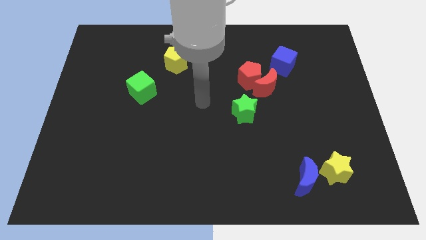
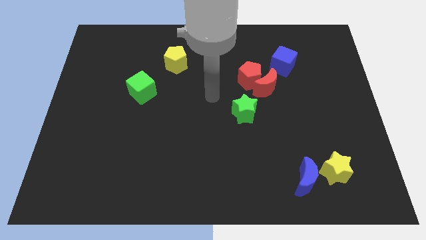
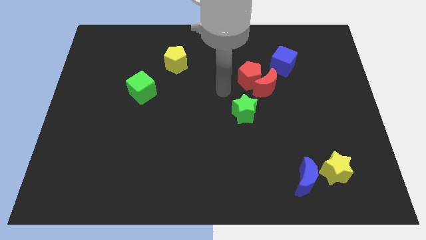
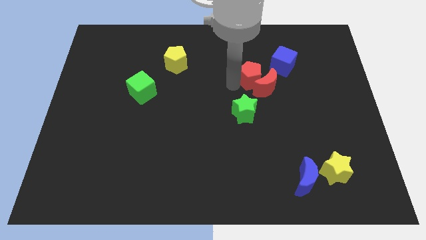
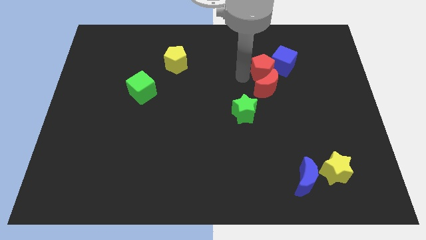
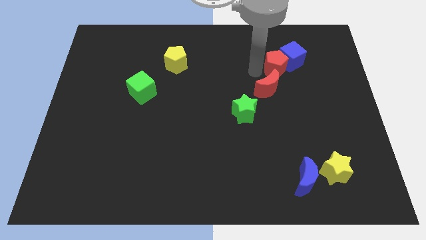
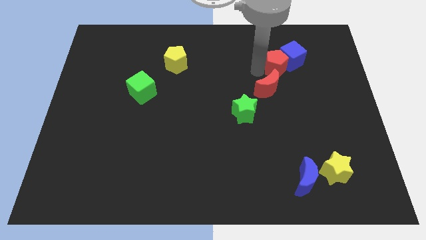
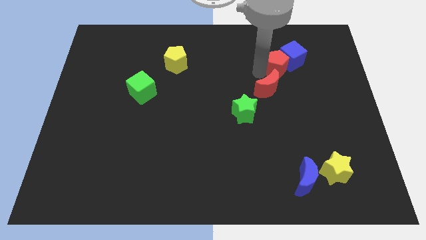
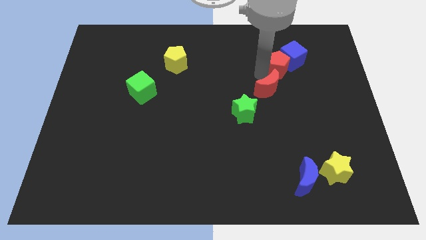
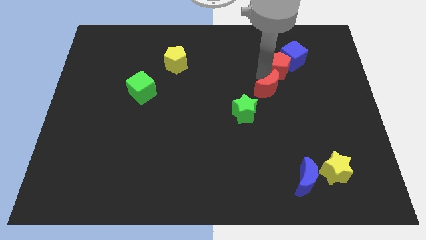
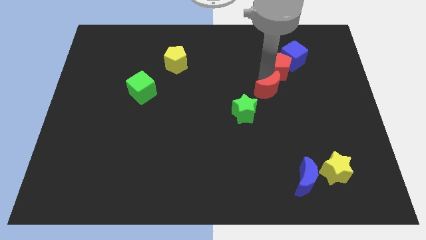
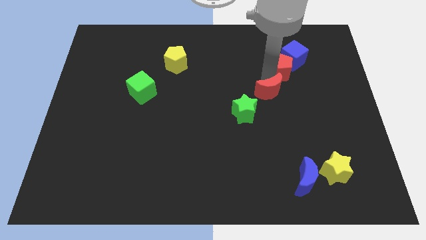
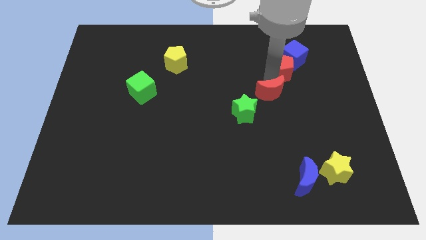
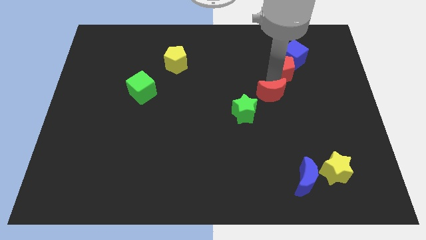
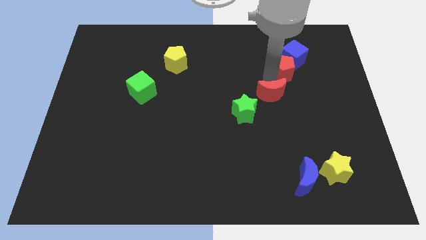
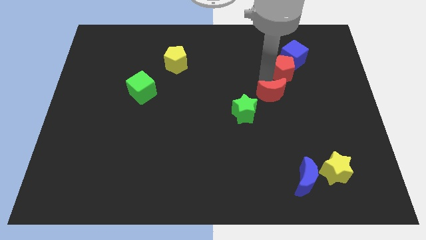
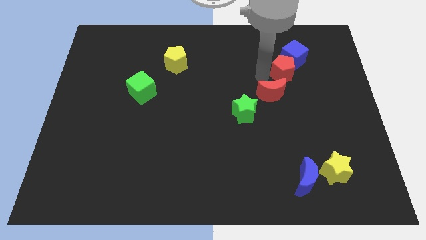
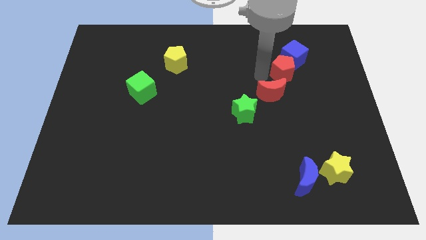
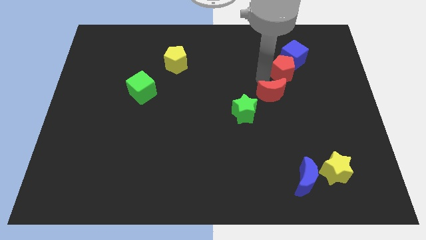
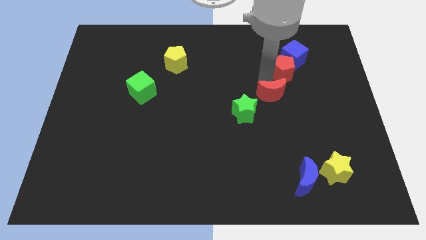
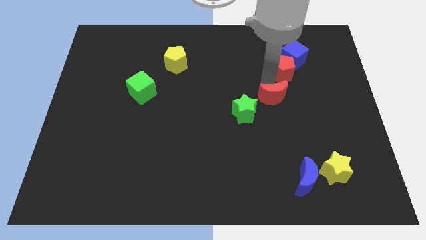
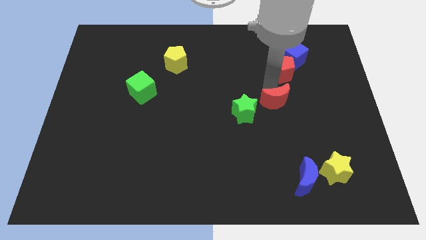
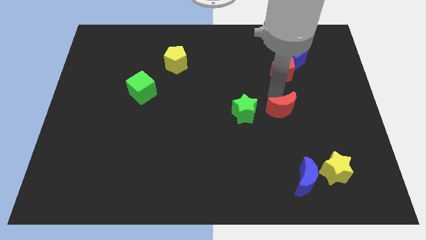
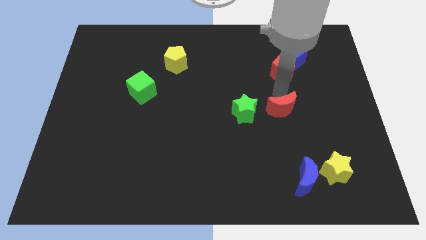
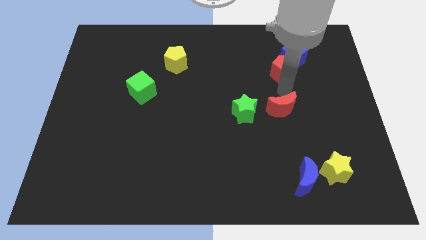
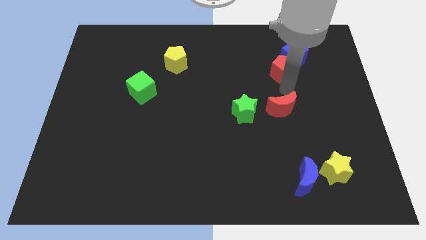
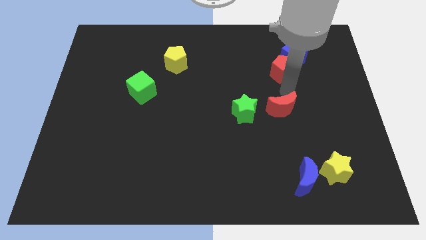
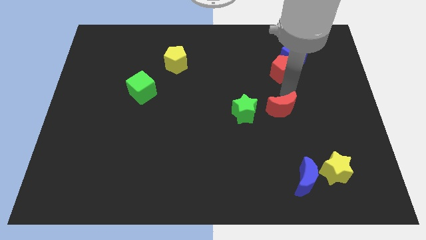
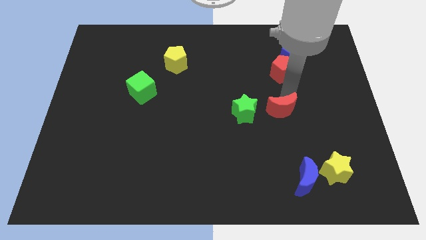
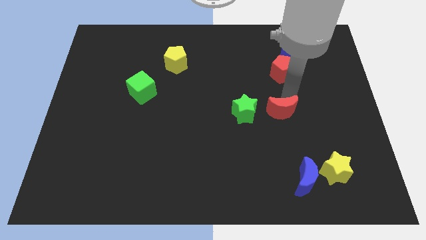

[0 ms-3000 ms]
move the red moon a bit downwards

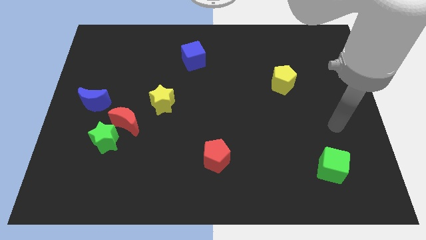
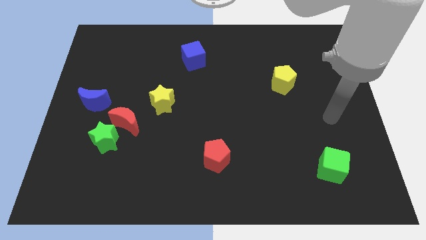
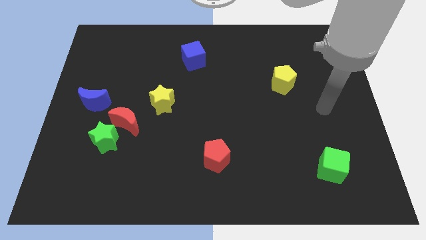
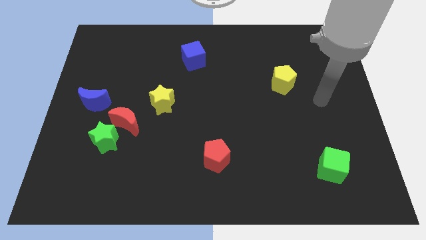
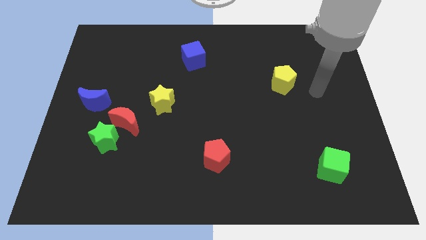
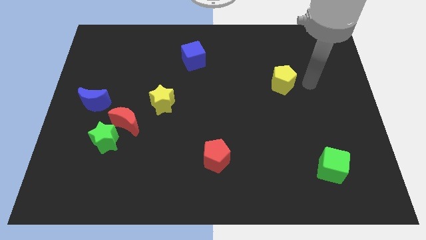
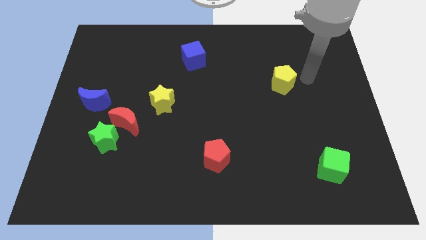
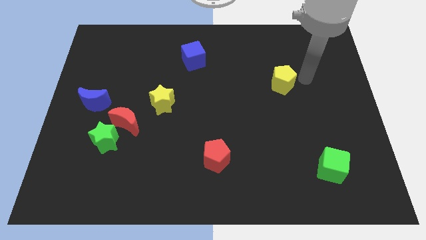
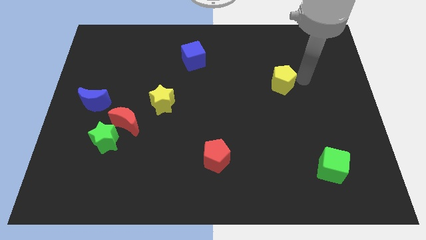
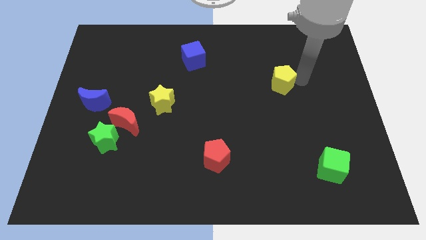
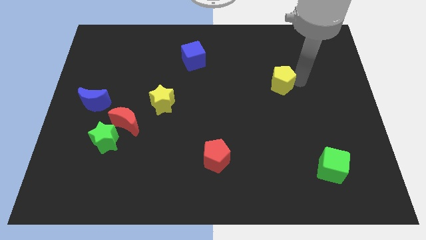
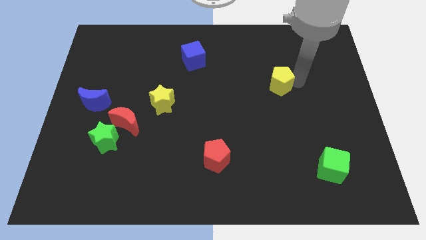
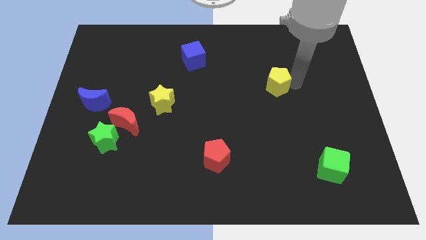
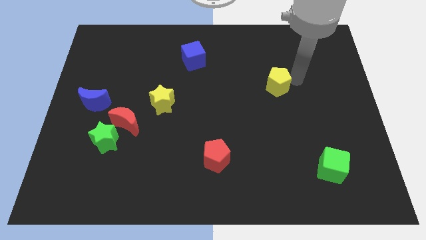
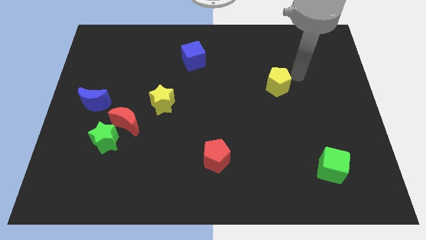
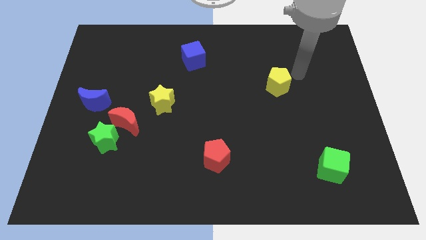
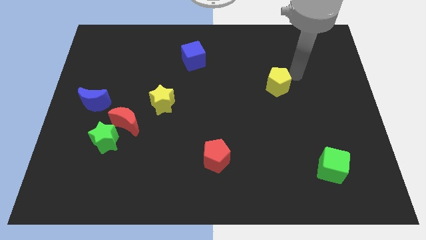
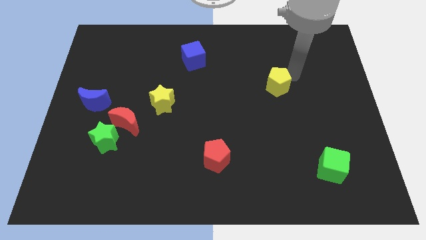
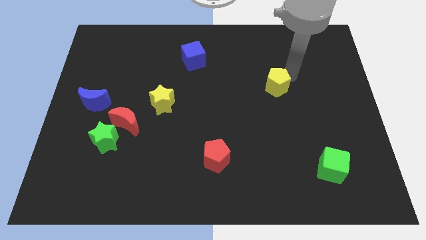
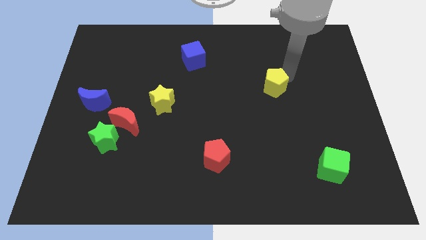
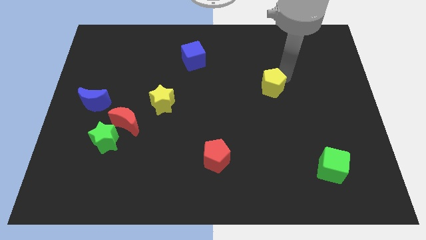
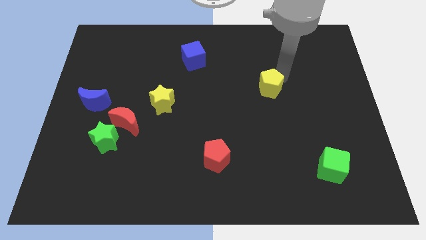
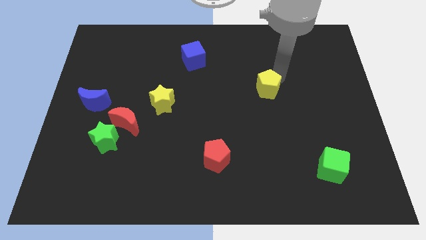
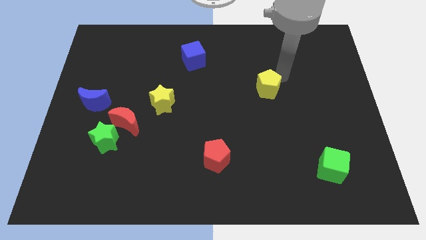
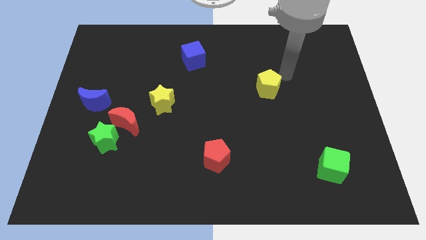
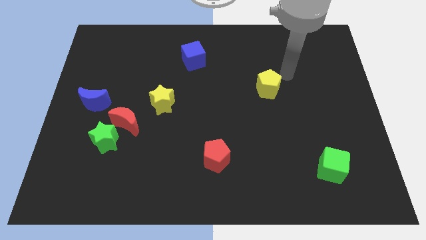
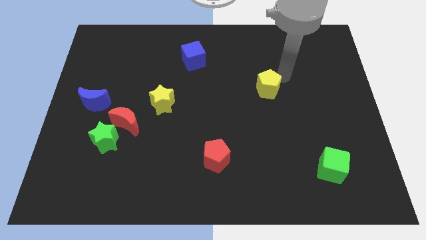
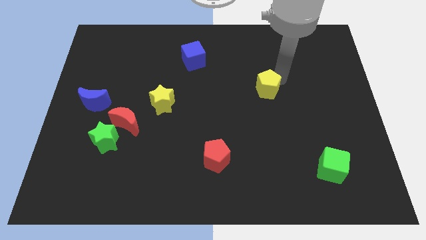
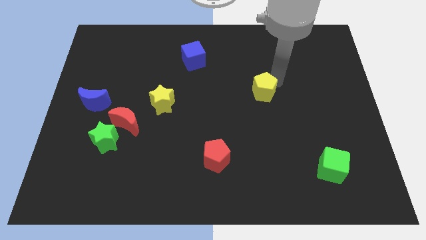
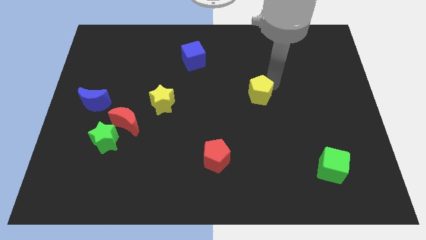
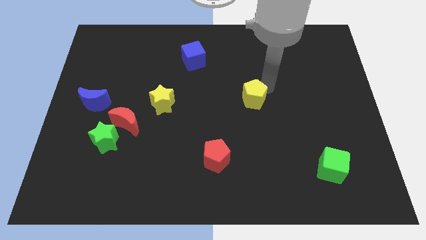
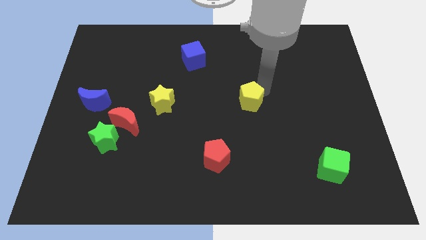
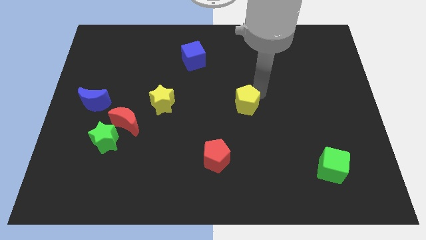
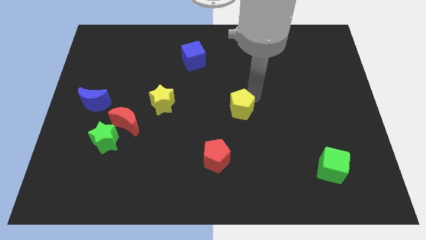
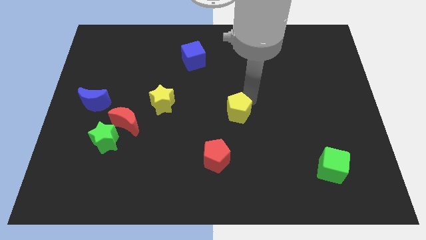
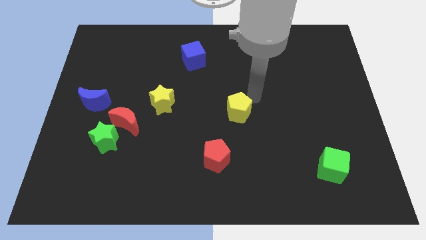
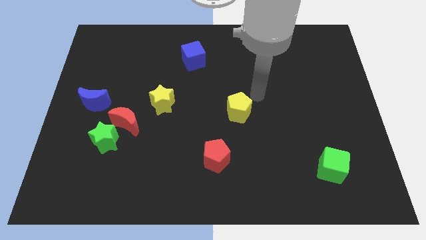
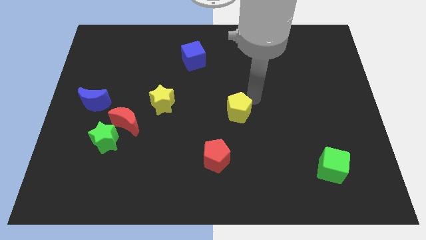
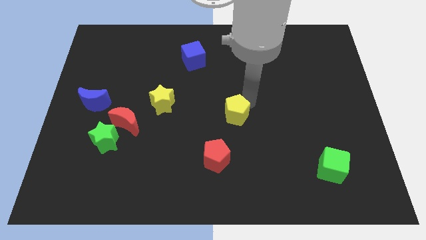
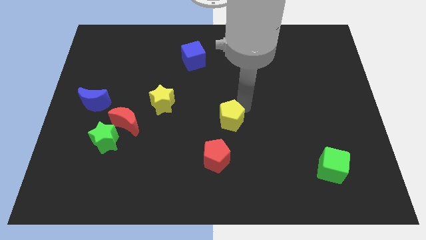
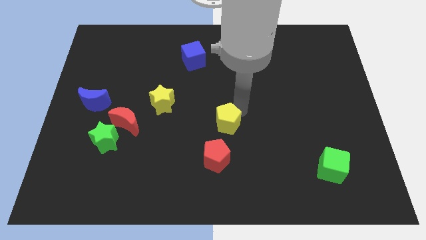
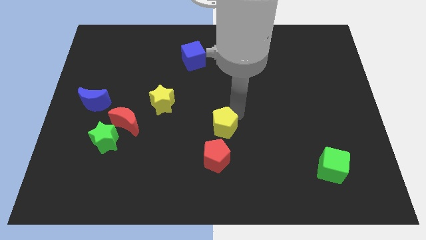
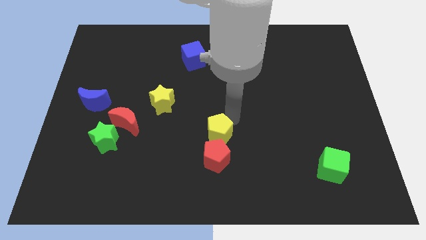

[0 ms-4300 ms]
push the yellow pentagon diagonally down and to the left

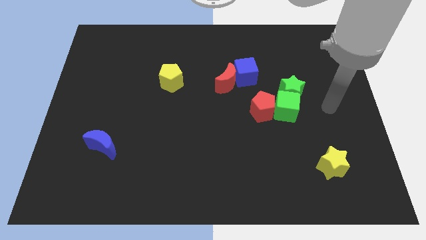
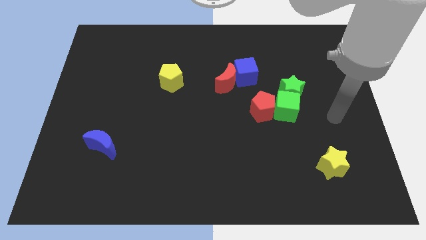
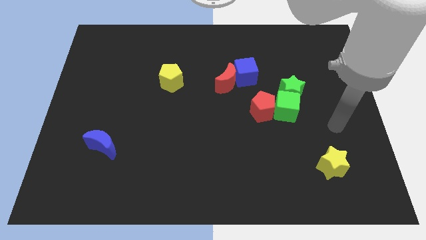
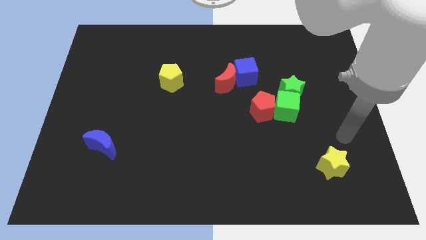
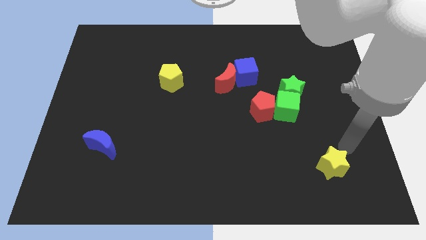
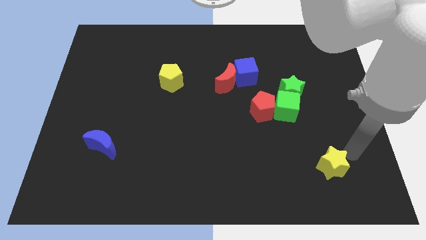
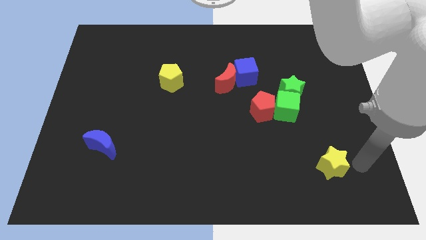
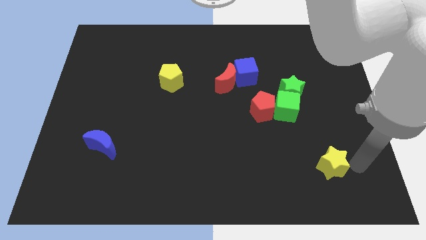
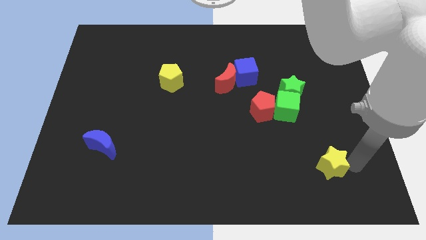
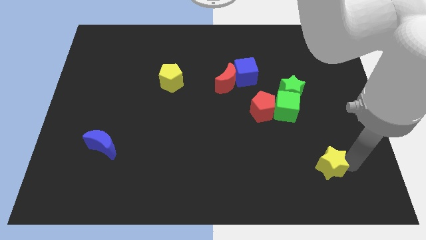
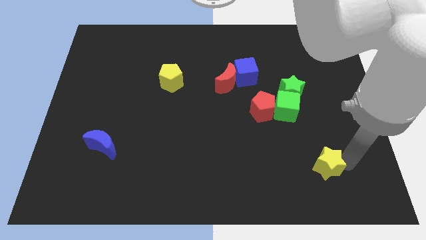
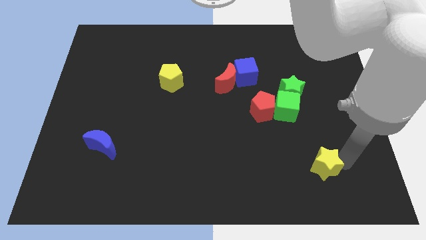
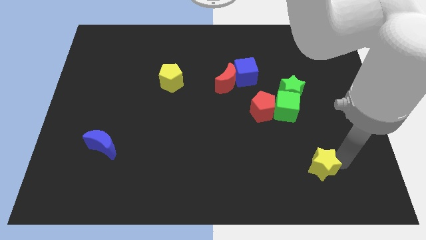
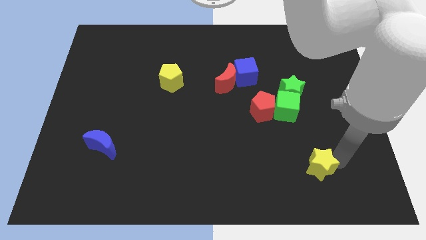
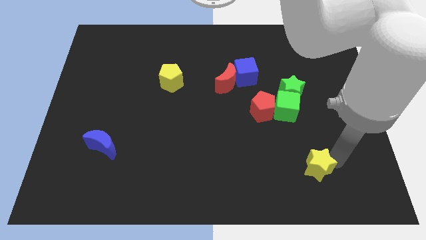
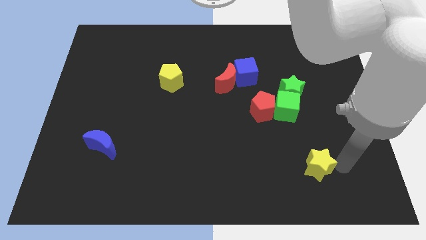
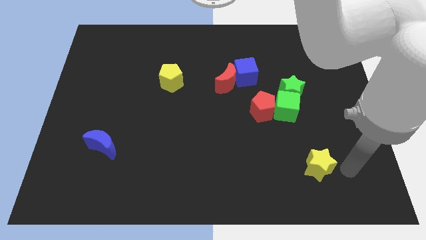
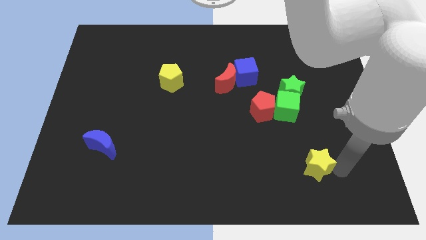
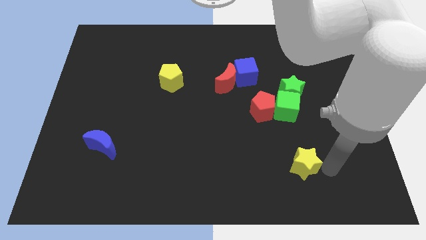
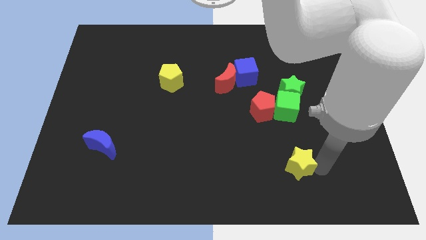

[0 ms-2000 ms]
slightly push the yellow star left
